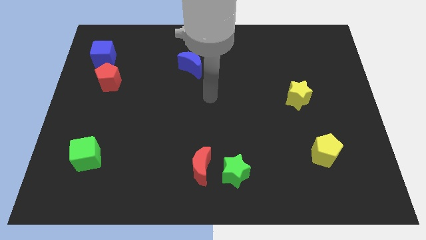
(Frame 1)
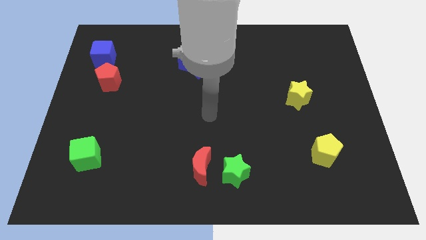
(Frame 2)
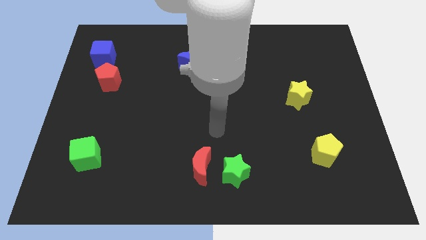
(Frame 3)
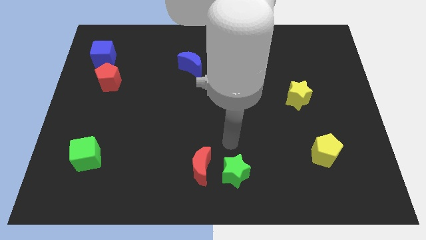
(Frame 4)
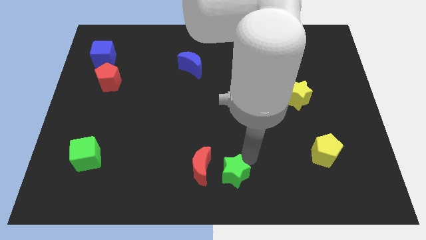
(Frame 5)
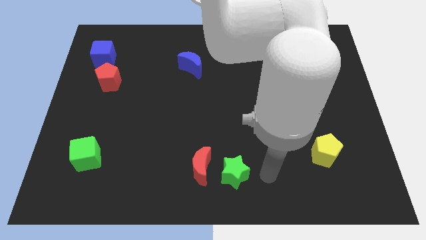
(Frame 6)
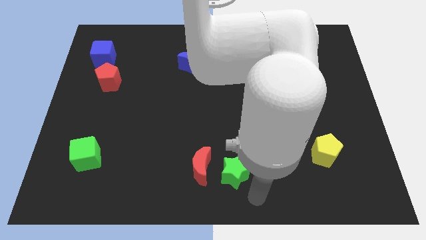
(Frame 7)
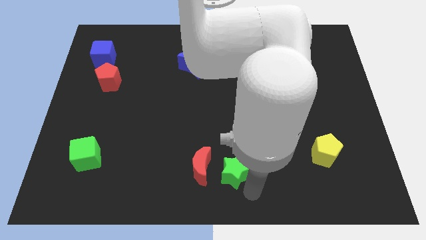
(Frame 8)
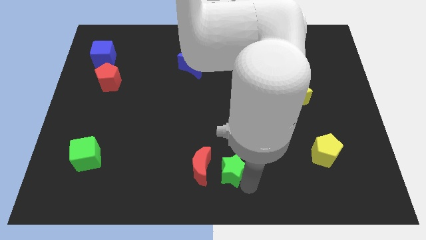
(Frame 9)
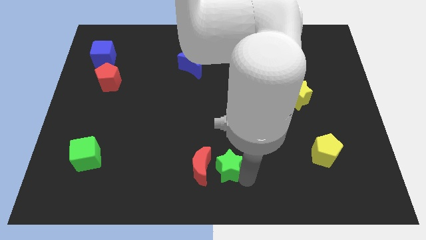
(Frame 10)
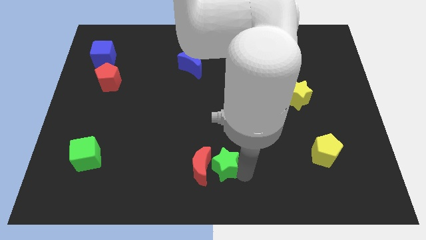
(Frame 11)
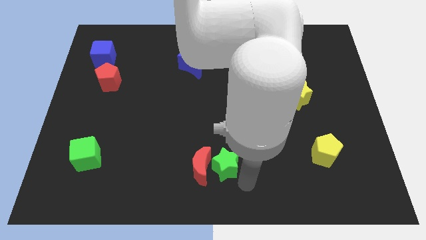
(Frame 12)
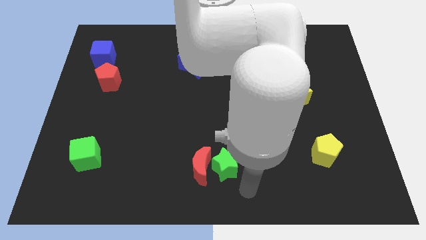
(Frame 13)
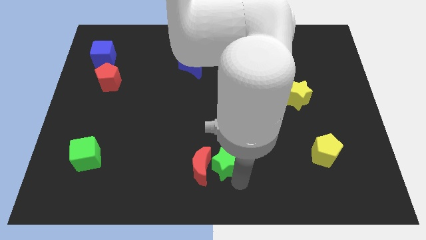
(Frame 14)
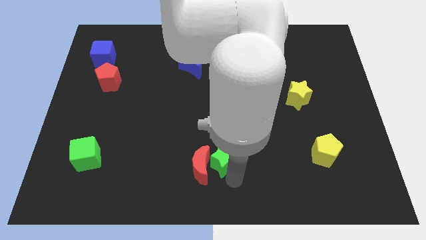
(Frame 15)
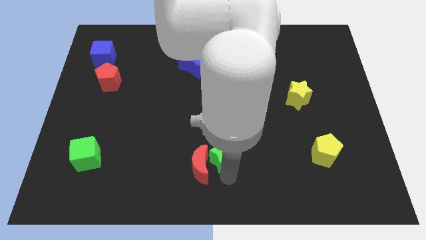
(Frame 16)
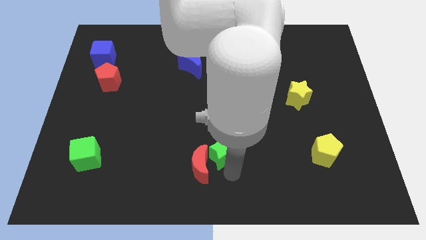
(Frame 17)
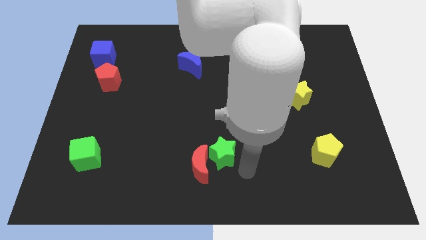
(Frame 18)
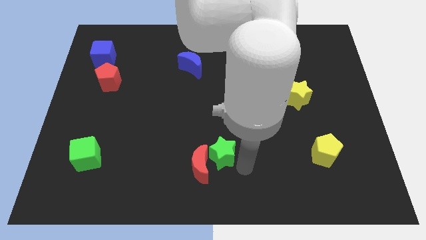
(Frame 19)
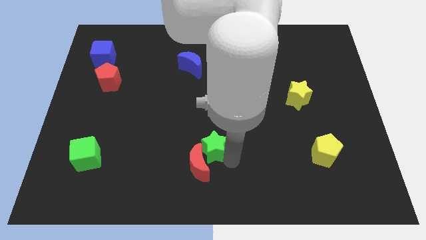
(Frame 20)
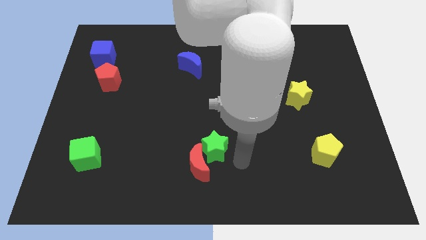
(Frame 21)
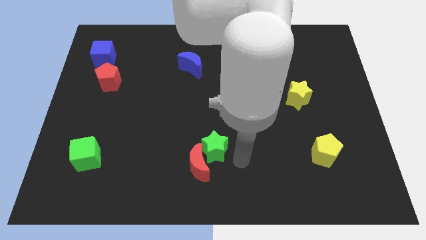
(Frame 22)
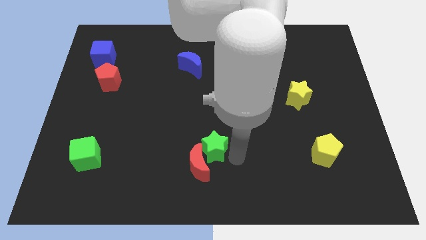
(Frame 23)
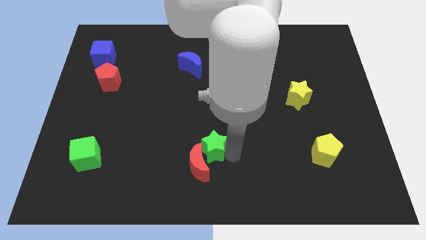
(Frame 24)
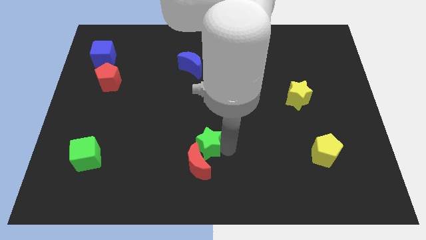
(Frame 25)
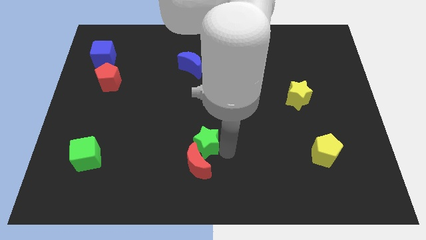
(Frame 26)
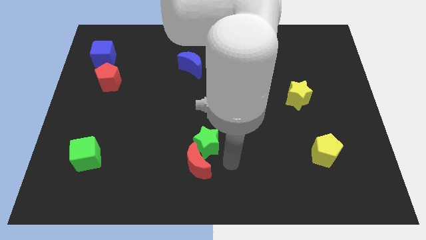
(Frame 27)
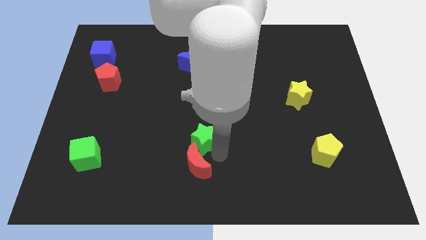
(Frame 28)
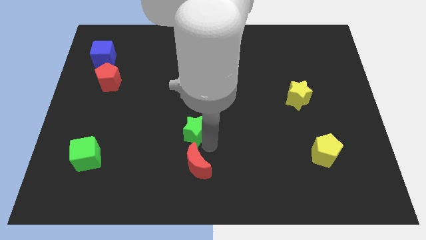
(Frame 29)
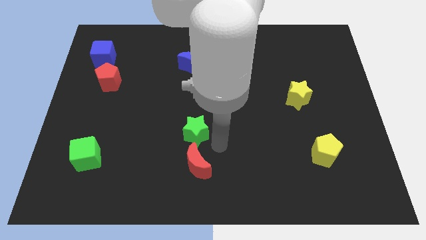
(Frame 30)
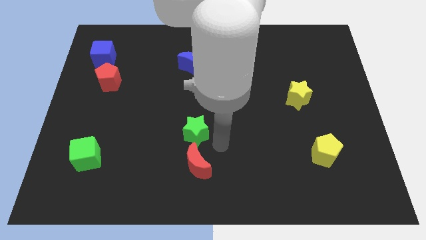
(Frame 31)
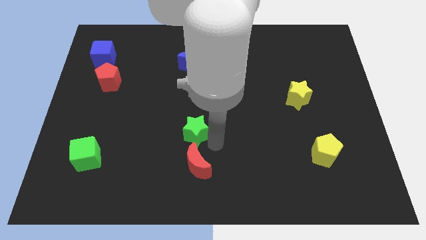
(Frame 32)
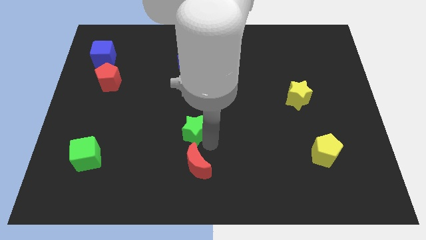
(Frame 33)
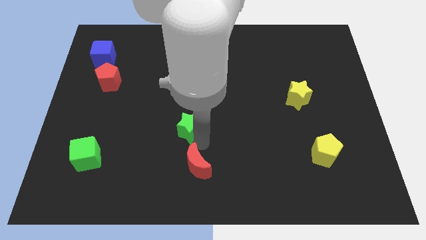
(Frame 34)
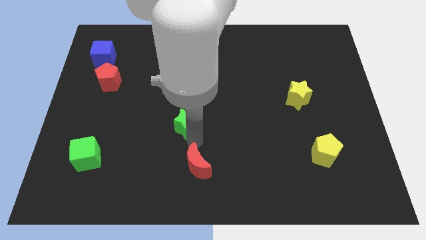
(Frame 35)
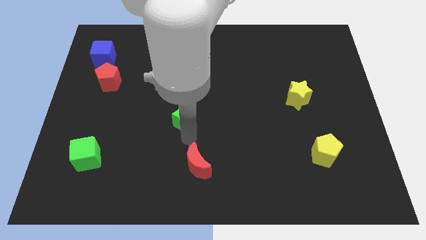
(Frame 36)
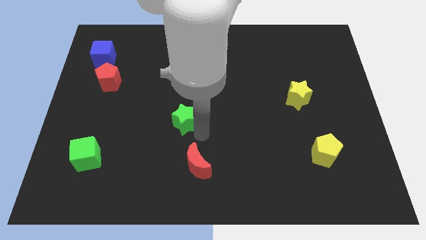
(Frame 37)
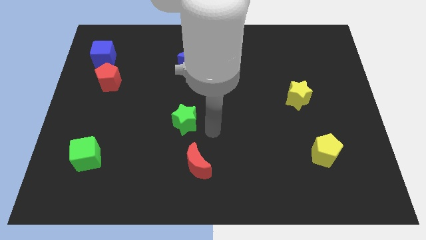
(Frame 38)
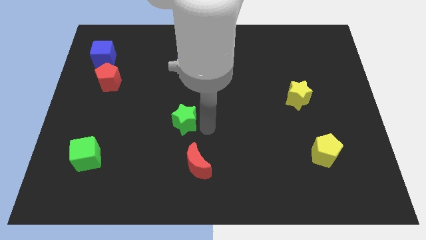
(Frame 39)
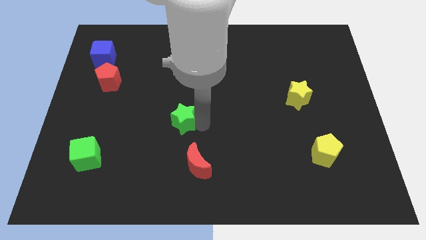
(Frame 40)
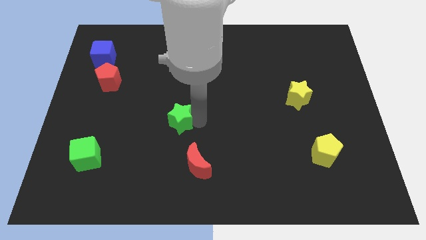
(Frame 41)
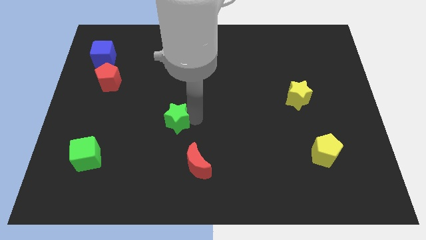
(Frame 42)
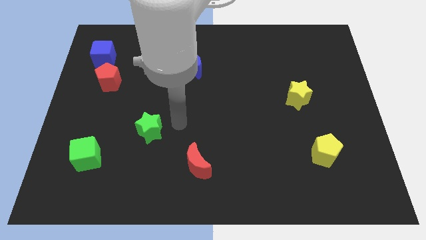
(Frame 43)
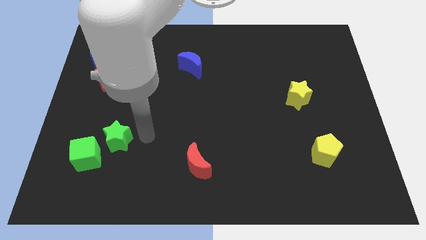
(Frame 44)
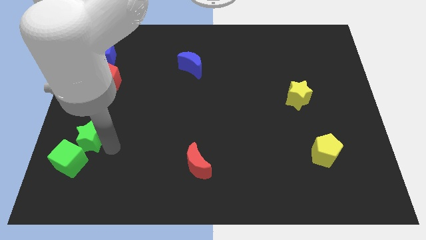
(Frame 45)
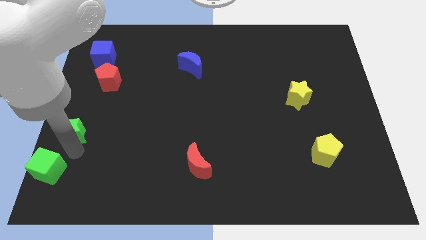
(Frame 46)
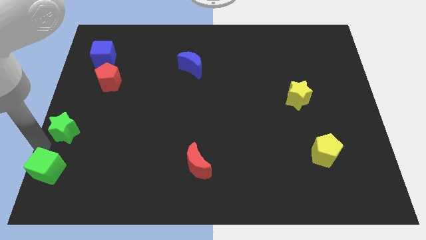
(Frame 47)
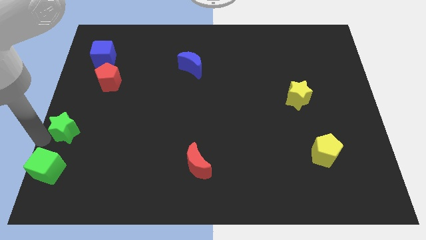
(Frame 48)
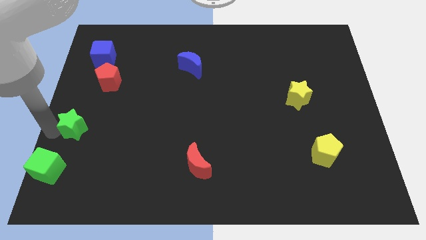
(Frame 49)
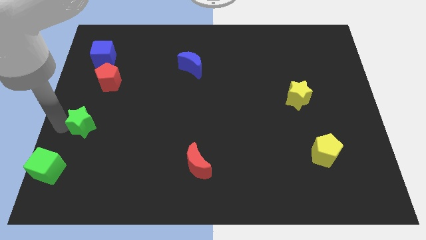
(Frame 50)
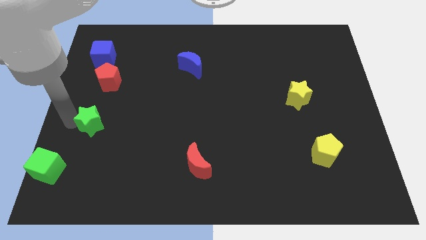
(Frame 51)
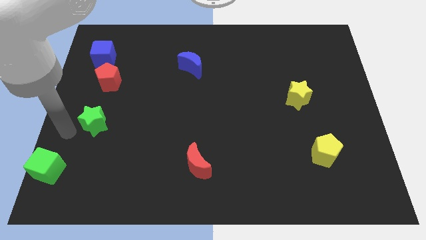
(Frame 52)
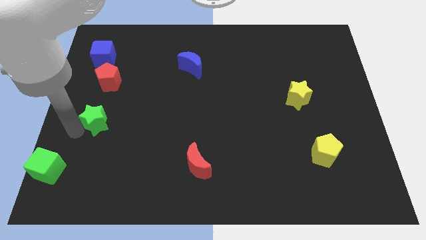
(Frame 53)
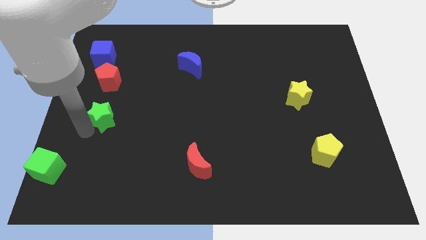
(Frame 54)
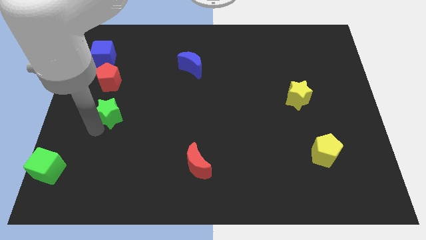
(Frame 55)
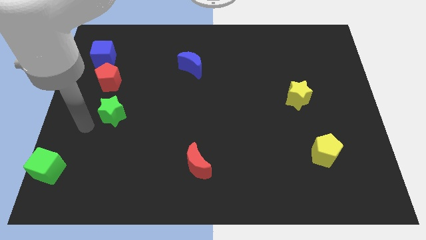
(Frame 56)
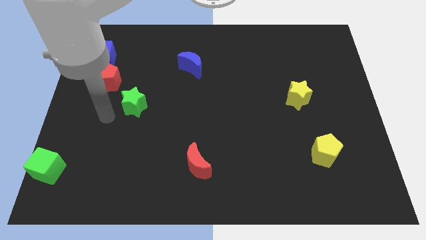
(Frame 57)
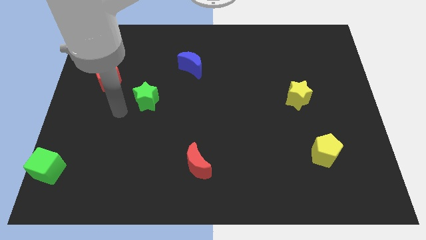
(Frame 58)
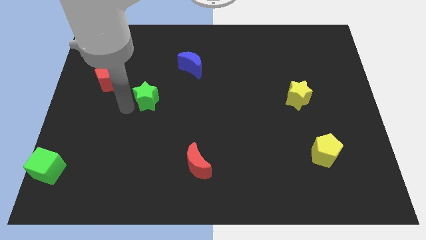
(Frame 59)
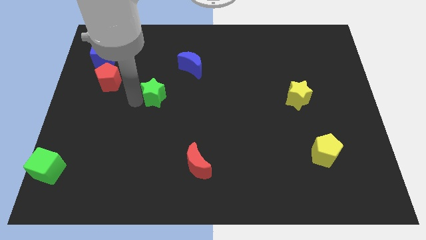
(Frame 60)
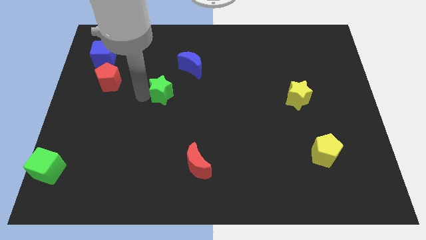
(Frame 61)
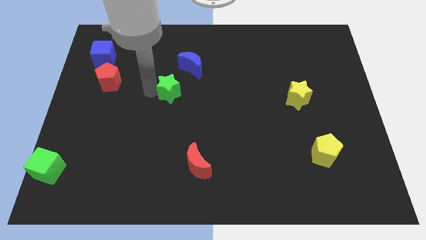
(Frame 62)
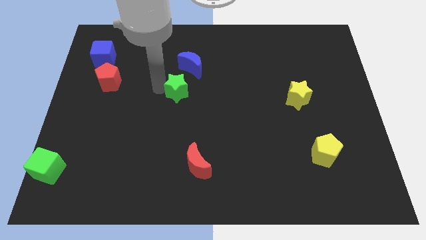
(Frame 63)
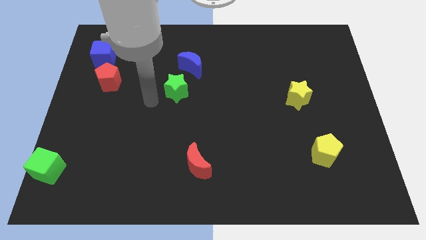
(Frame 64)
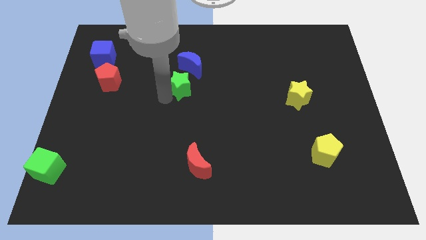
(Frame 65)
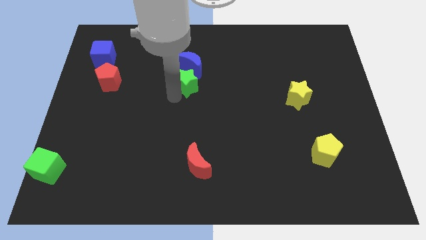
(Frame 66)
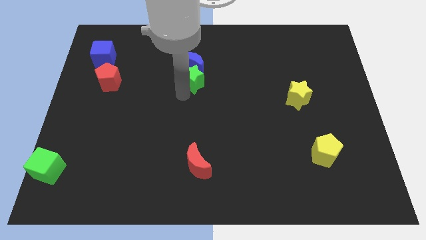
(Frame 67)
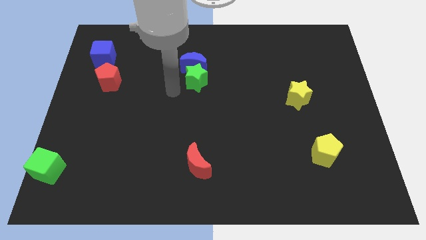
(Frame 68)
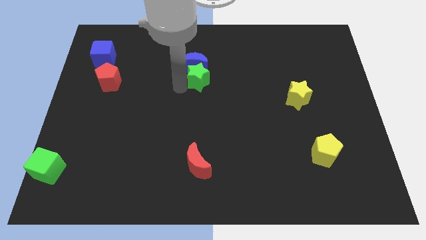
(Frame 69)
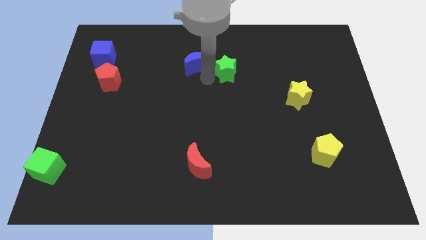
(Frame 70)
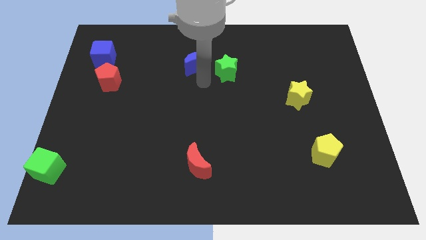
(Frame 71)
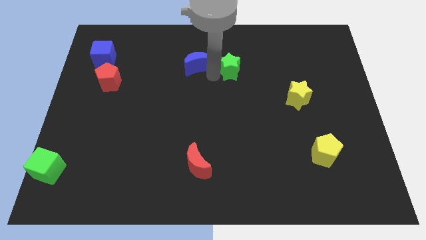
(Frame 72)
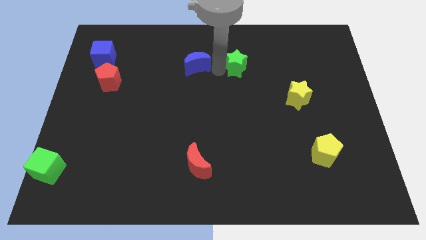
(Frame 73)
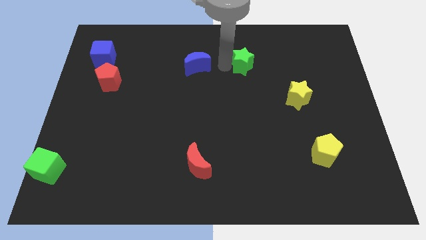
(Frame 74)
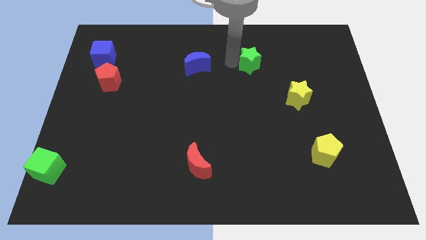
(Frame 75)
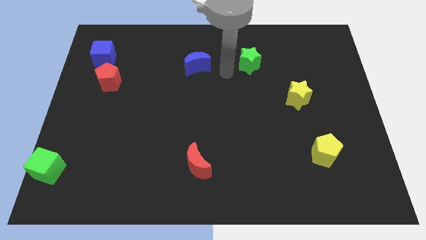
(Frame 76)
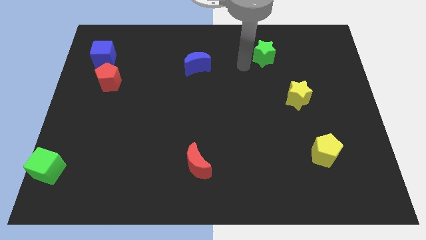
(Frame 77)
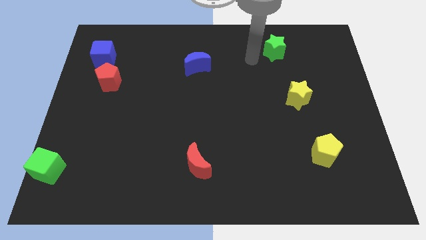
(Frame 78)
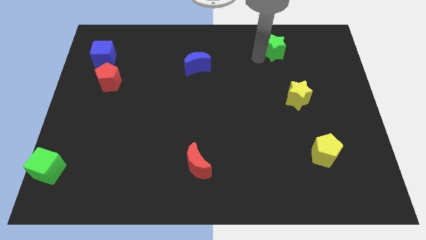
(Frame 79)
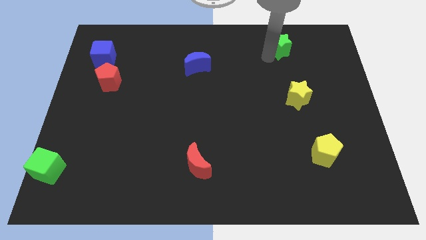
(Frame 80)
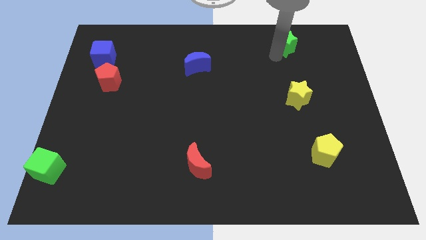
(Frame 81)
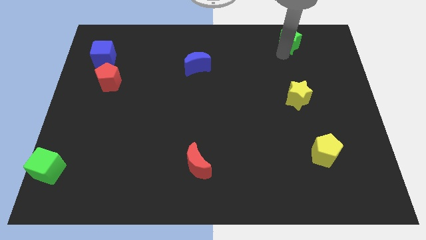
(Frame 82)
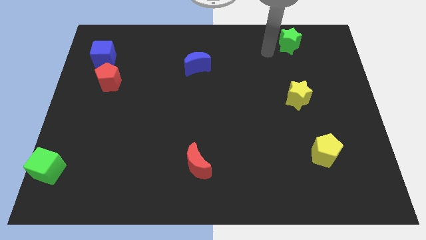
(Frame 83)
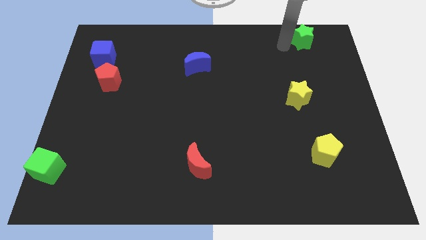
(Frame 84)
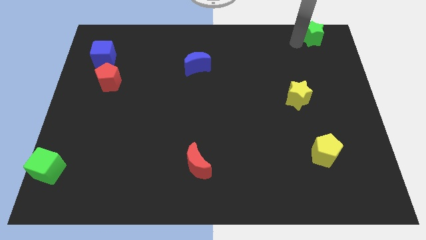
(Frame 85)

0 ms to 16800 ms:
move the green star to the top right
